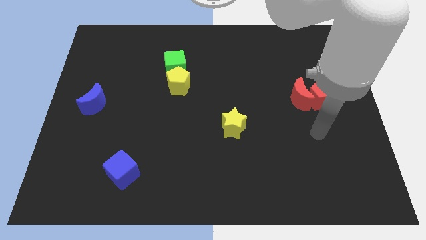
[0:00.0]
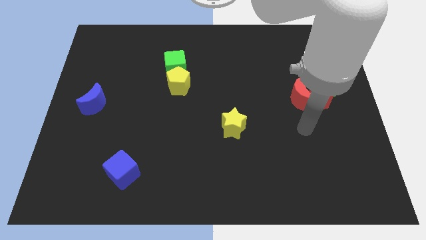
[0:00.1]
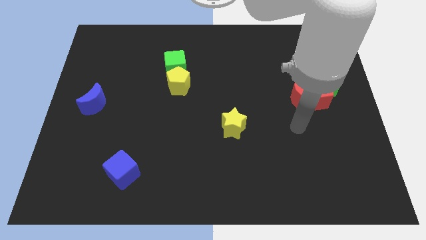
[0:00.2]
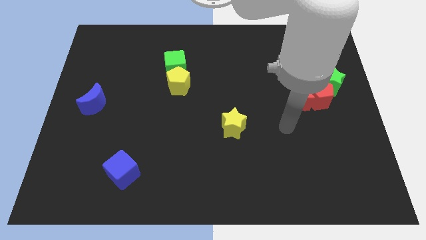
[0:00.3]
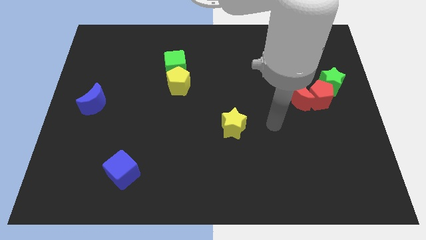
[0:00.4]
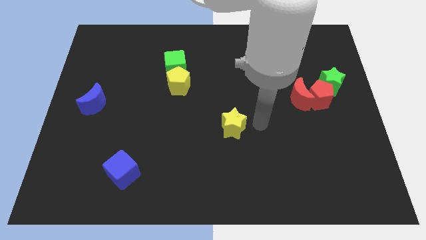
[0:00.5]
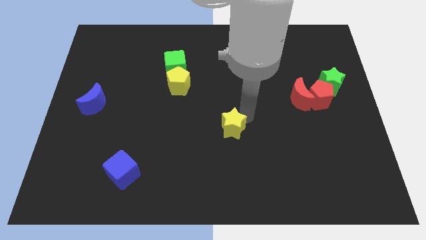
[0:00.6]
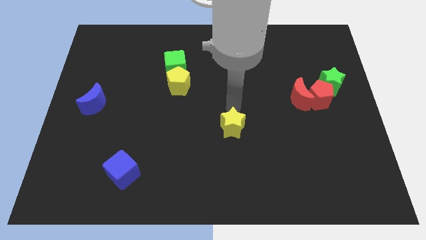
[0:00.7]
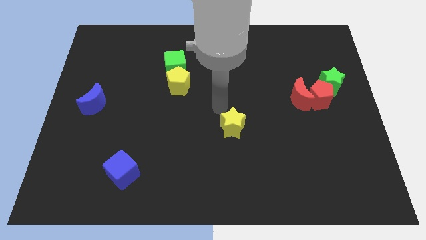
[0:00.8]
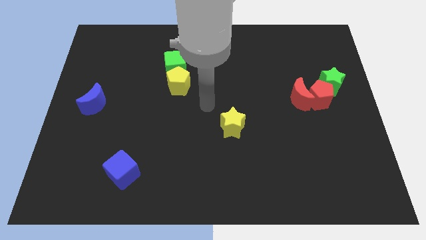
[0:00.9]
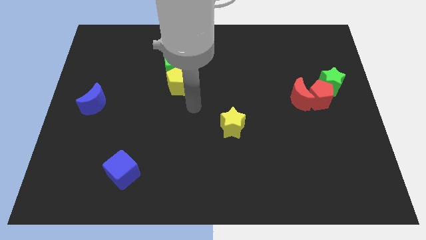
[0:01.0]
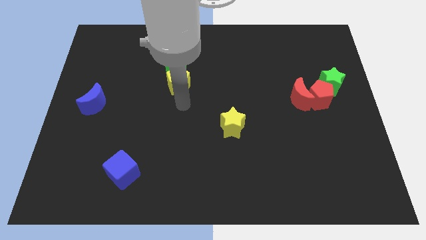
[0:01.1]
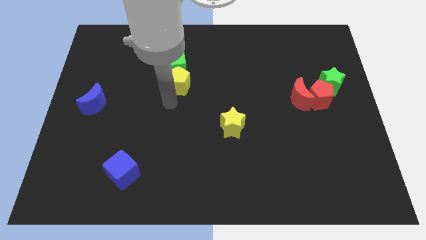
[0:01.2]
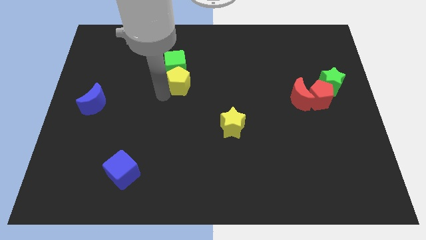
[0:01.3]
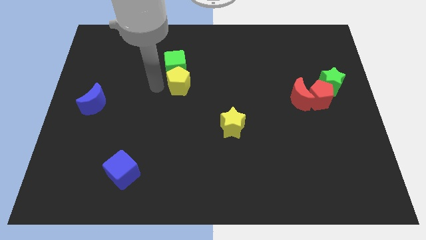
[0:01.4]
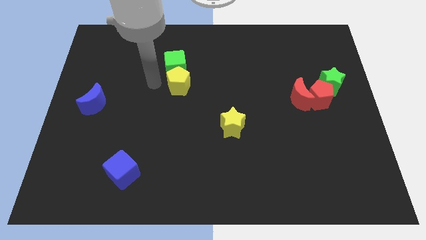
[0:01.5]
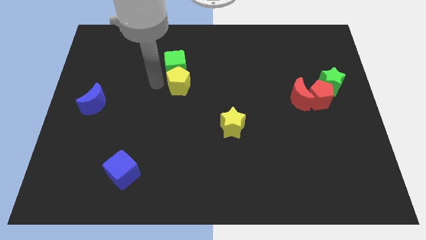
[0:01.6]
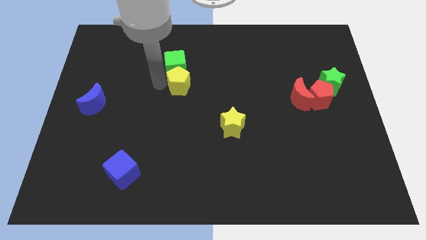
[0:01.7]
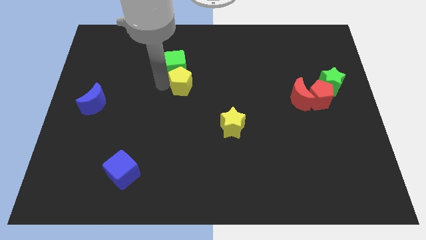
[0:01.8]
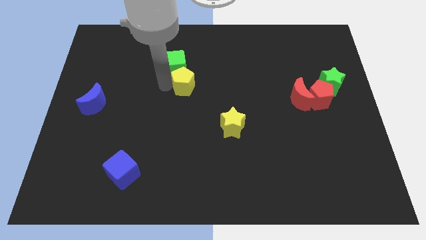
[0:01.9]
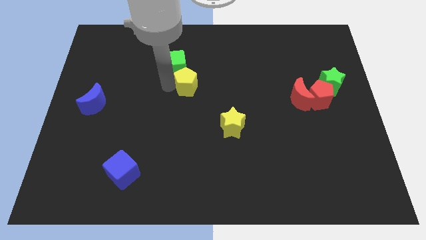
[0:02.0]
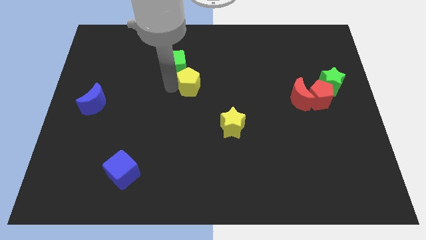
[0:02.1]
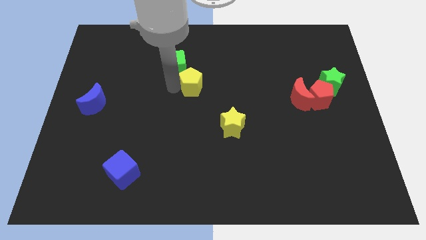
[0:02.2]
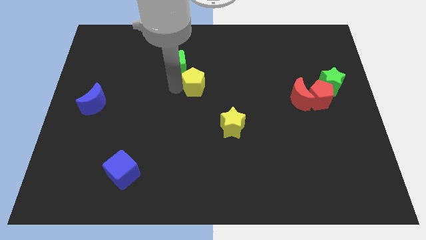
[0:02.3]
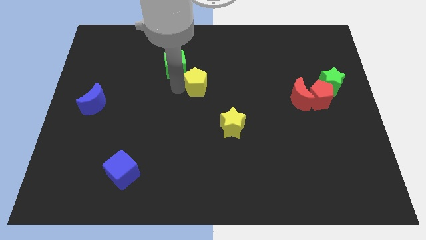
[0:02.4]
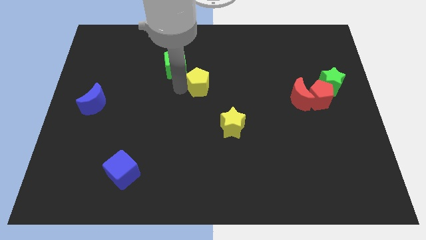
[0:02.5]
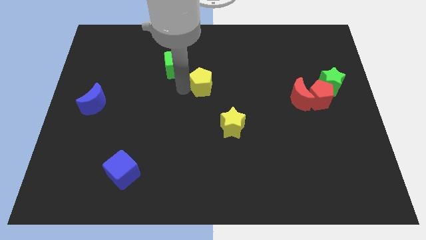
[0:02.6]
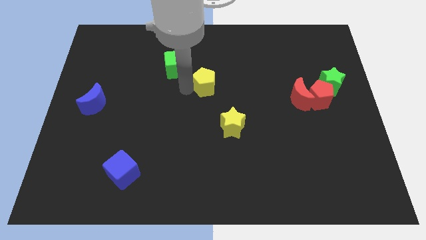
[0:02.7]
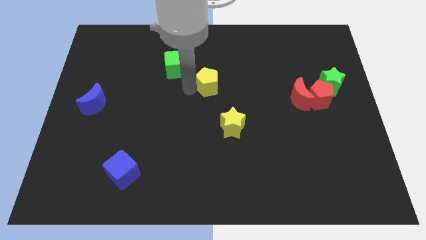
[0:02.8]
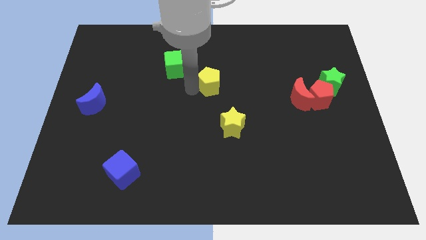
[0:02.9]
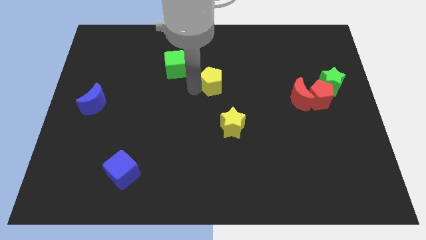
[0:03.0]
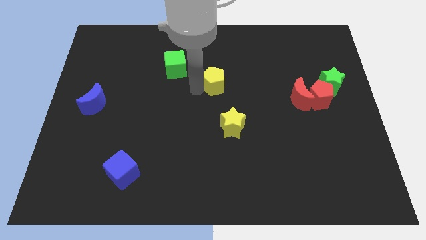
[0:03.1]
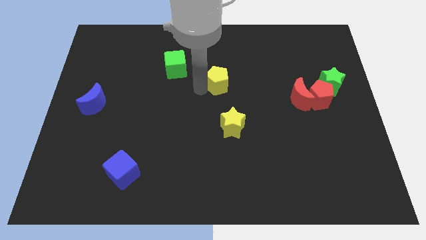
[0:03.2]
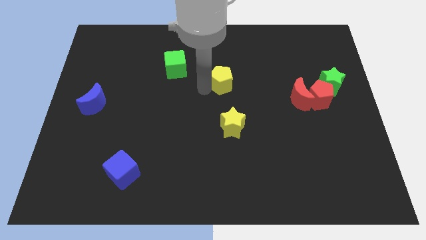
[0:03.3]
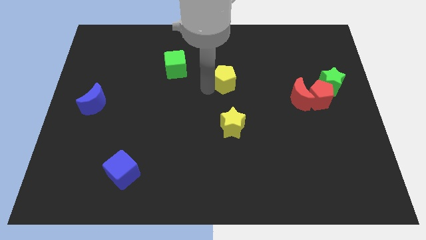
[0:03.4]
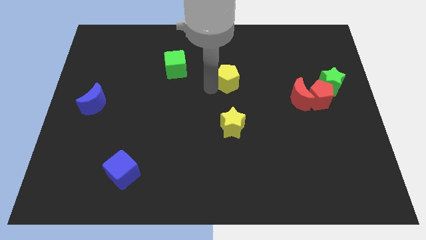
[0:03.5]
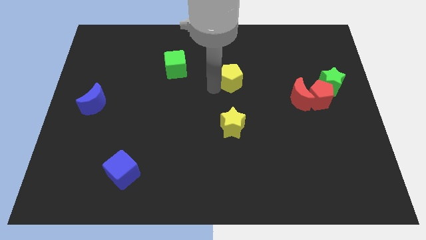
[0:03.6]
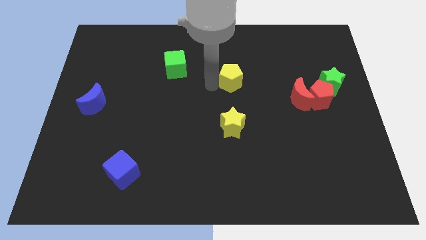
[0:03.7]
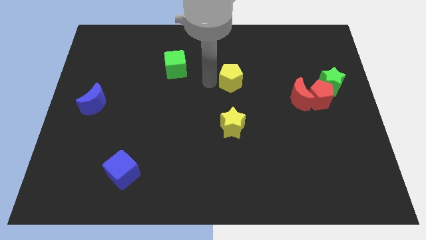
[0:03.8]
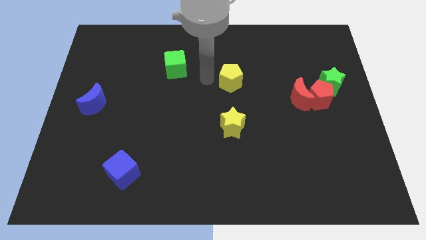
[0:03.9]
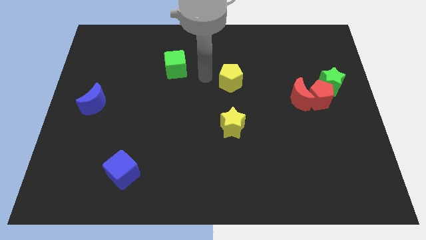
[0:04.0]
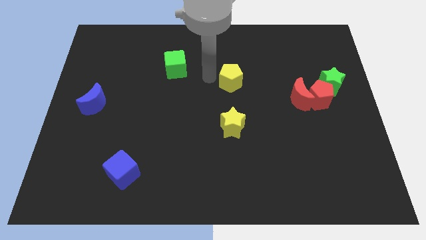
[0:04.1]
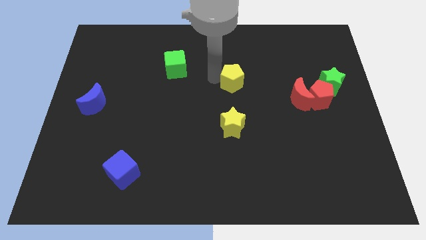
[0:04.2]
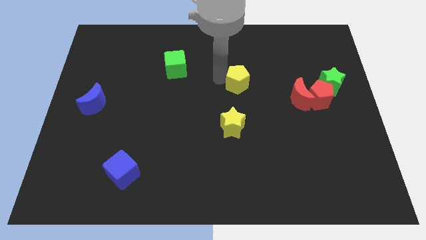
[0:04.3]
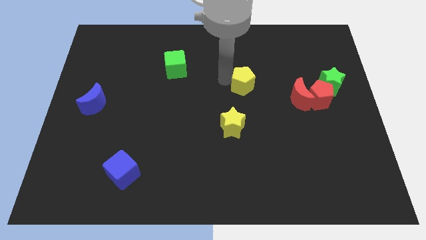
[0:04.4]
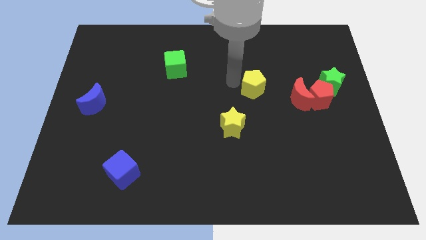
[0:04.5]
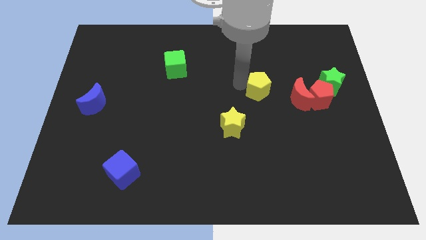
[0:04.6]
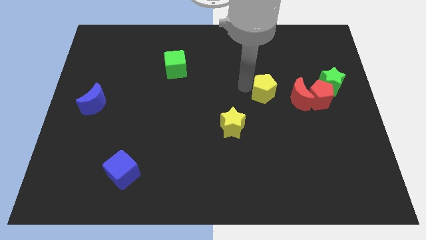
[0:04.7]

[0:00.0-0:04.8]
move the yellow pentagon to the right

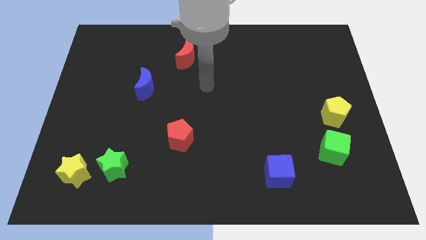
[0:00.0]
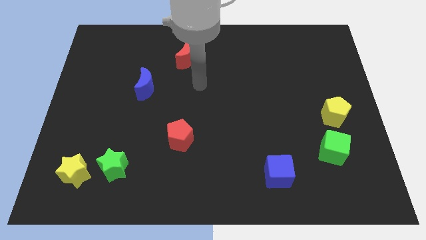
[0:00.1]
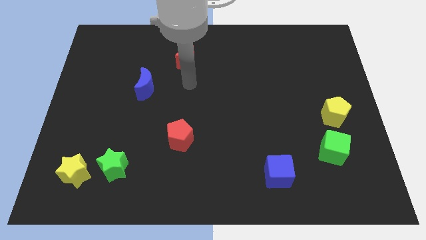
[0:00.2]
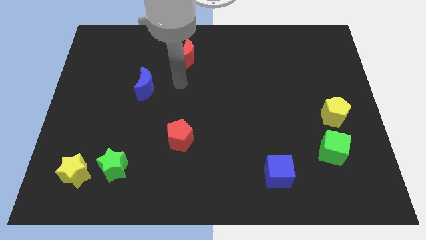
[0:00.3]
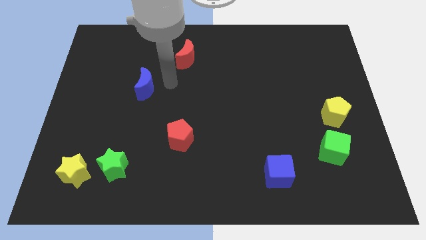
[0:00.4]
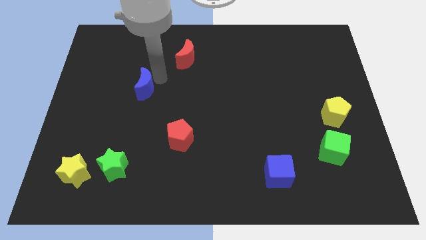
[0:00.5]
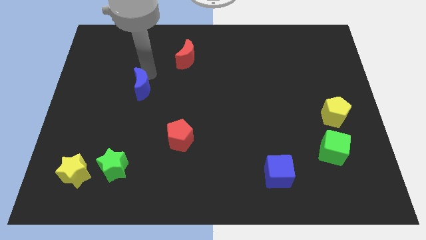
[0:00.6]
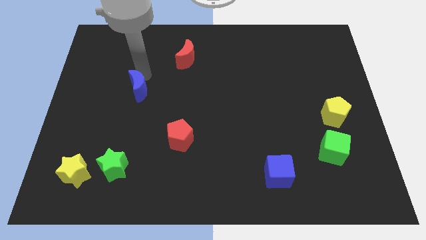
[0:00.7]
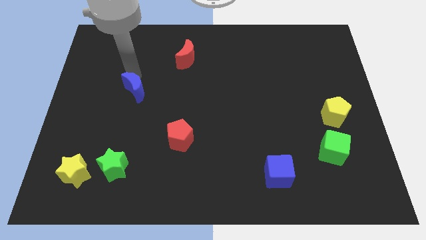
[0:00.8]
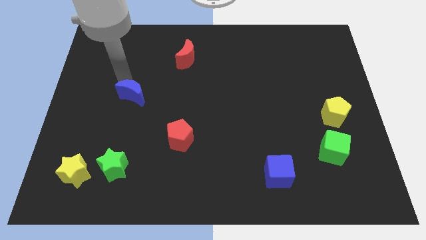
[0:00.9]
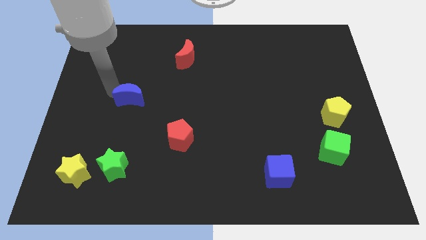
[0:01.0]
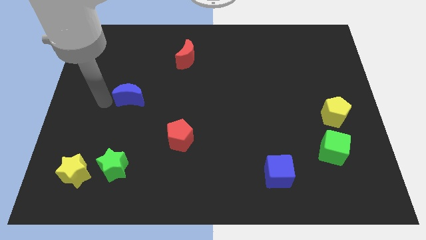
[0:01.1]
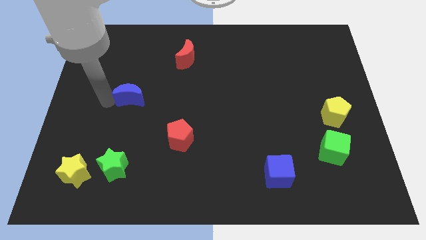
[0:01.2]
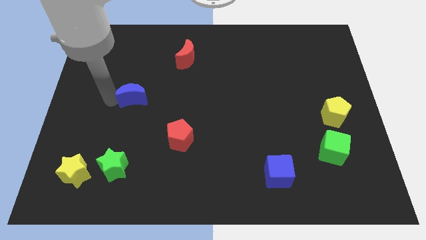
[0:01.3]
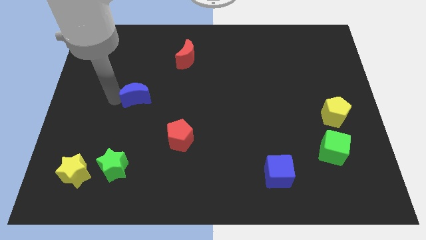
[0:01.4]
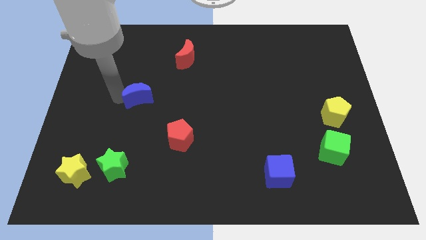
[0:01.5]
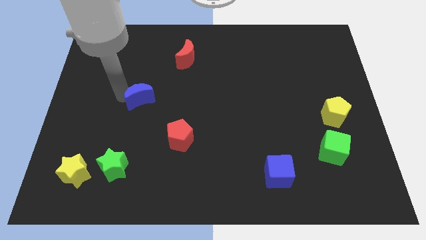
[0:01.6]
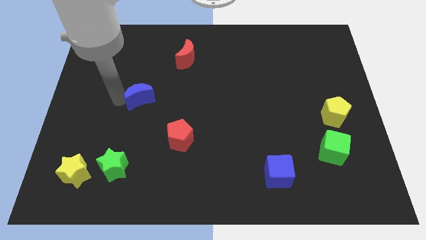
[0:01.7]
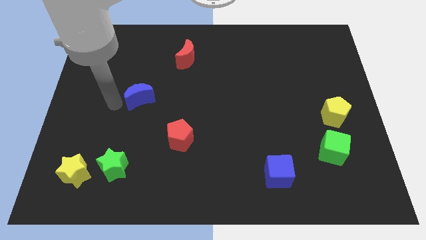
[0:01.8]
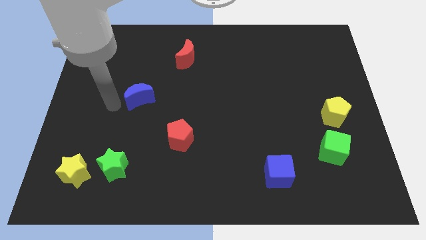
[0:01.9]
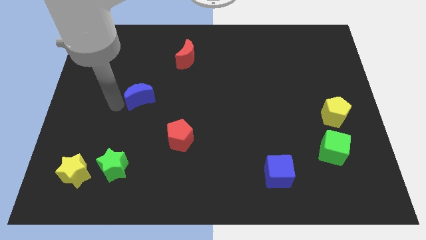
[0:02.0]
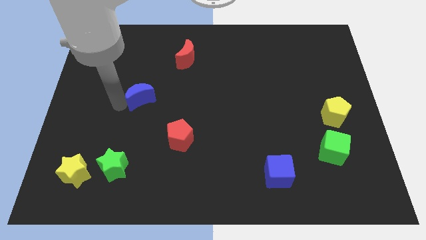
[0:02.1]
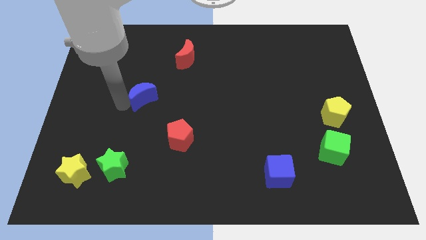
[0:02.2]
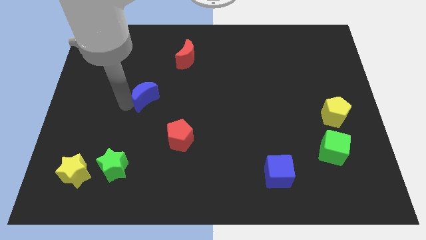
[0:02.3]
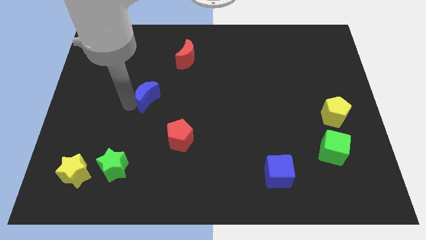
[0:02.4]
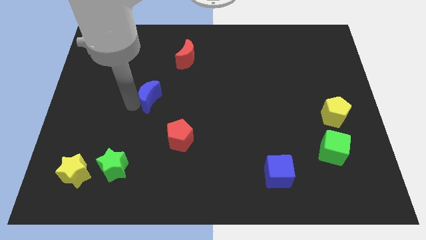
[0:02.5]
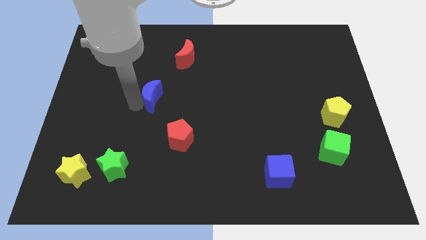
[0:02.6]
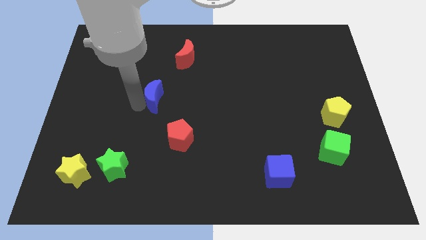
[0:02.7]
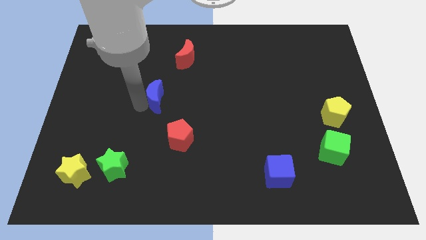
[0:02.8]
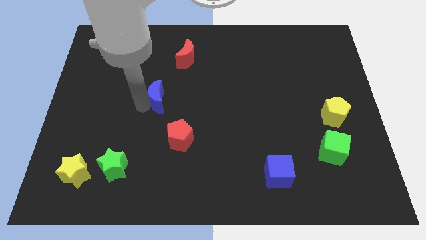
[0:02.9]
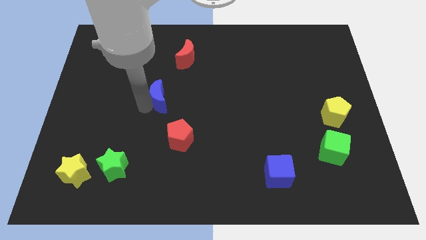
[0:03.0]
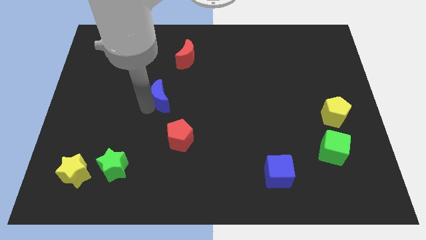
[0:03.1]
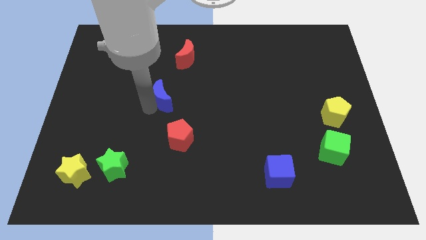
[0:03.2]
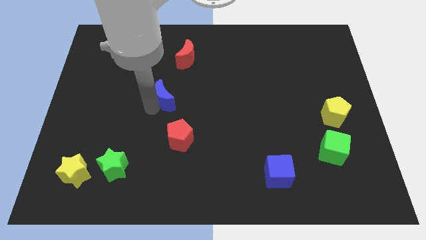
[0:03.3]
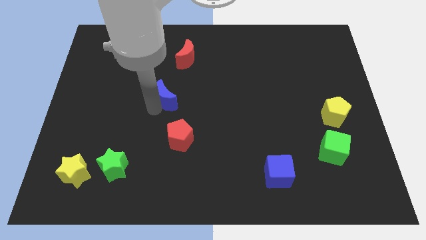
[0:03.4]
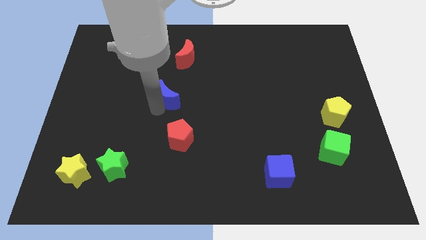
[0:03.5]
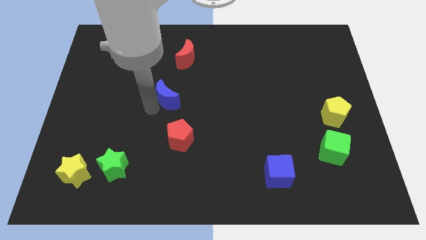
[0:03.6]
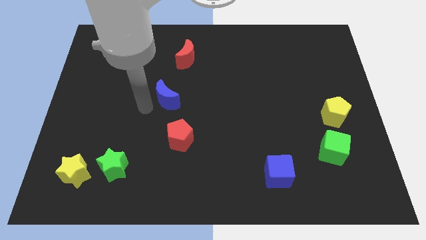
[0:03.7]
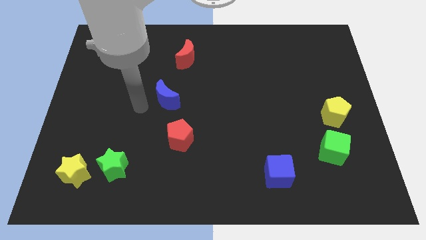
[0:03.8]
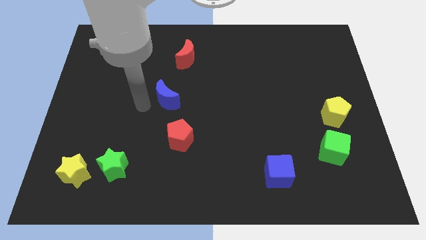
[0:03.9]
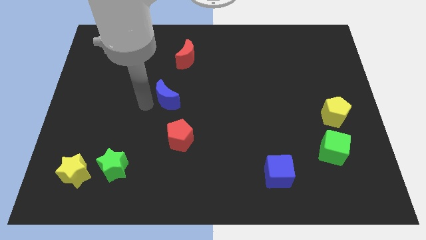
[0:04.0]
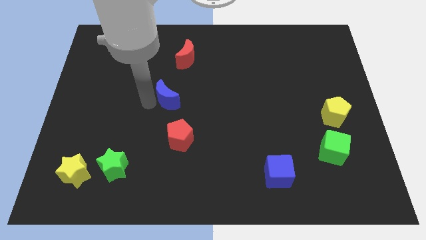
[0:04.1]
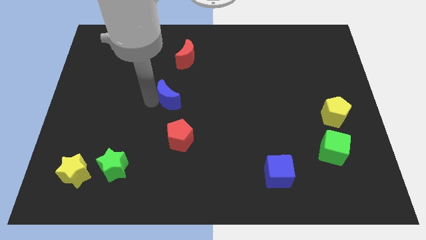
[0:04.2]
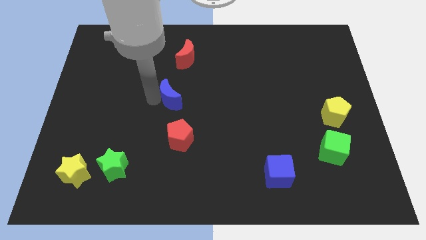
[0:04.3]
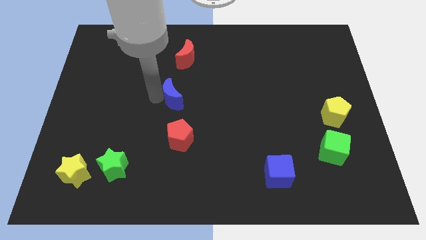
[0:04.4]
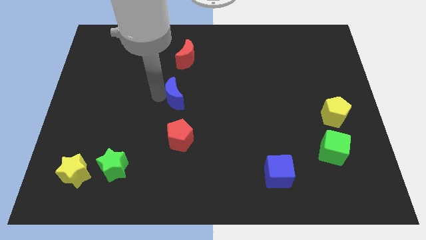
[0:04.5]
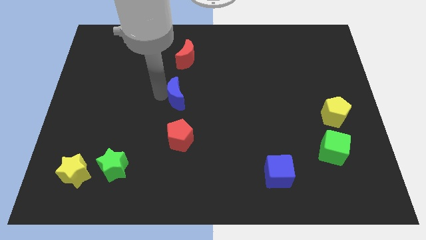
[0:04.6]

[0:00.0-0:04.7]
slide the blue moon right a bit
